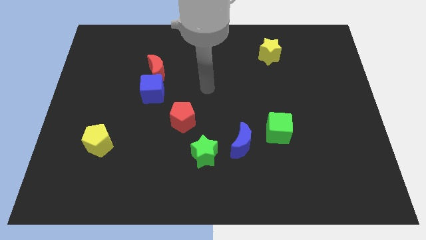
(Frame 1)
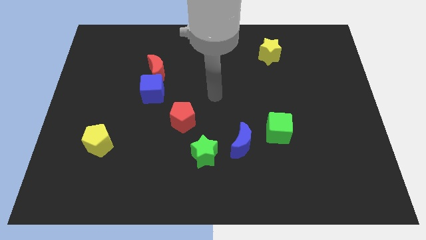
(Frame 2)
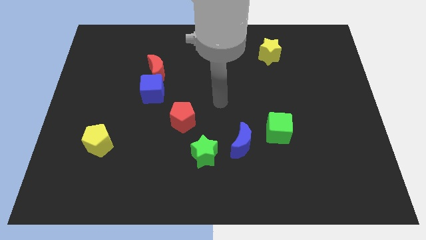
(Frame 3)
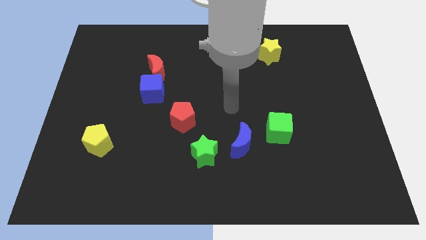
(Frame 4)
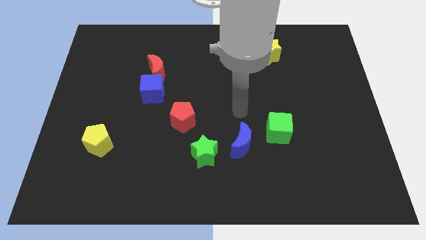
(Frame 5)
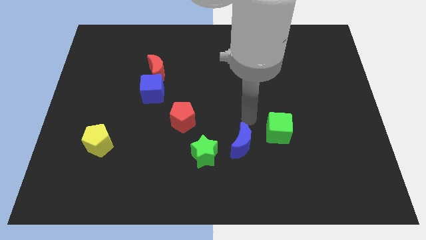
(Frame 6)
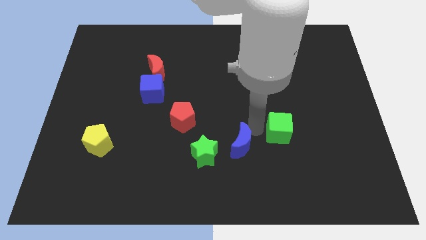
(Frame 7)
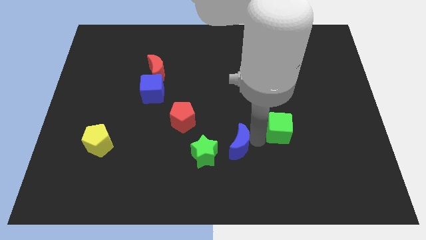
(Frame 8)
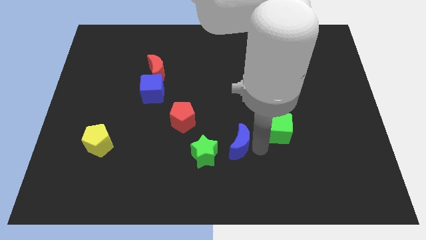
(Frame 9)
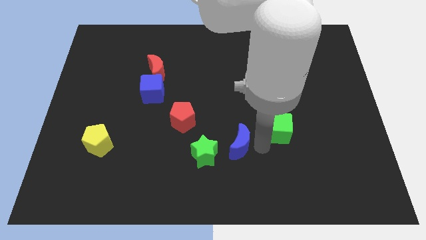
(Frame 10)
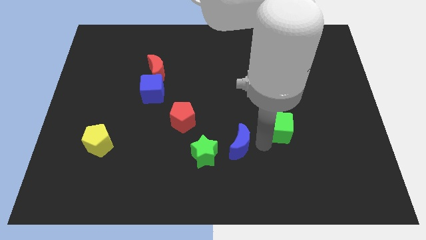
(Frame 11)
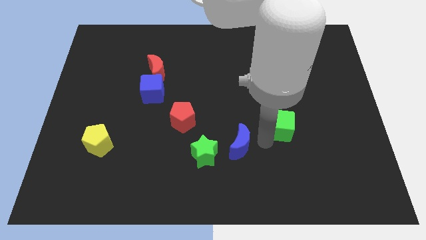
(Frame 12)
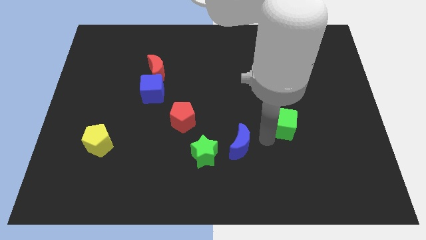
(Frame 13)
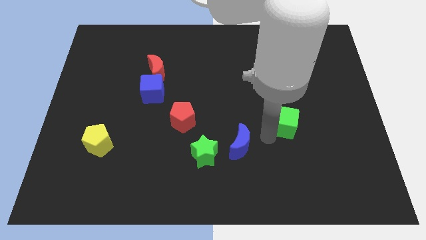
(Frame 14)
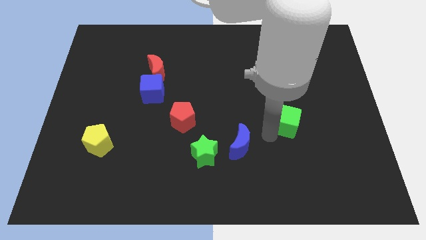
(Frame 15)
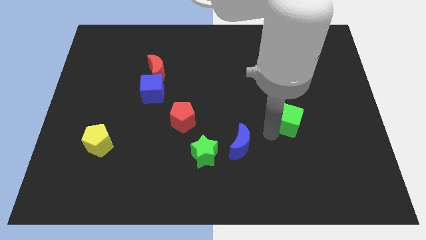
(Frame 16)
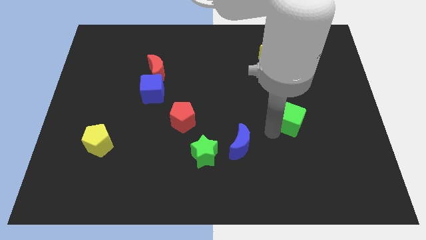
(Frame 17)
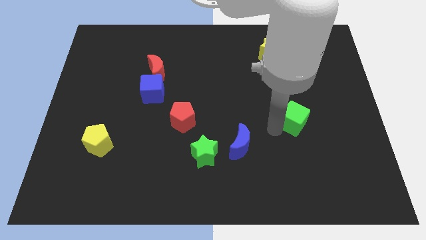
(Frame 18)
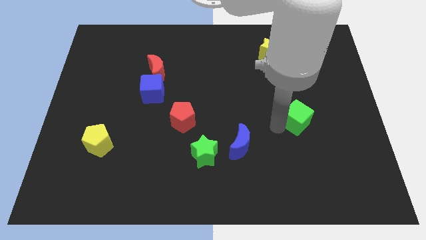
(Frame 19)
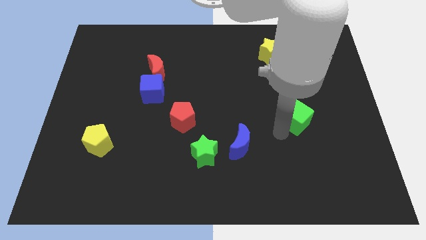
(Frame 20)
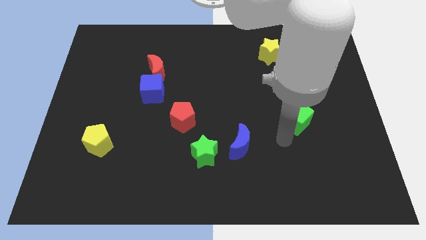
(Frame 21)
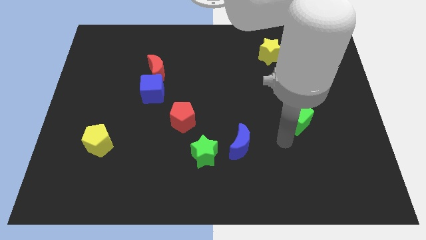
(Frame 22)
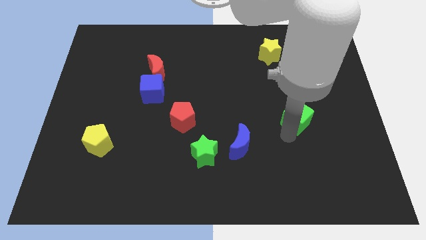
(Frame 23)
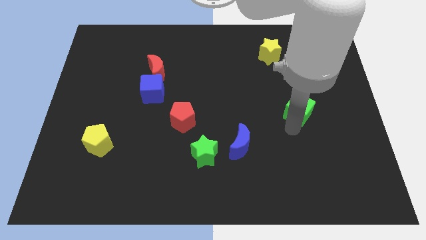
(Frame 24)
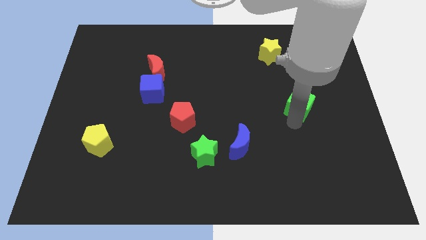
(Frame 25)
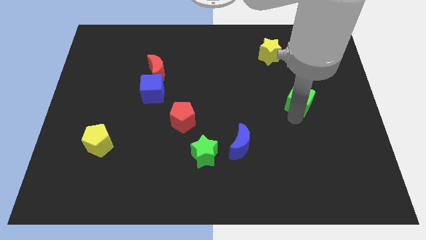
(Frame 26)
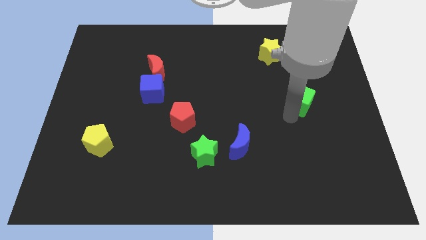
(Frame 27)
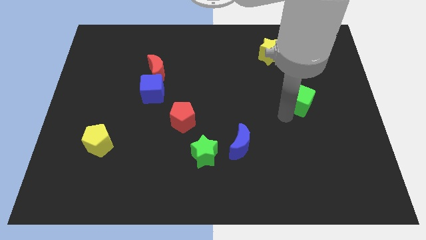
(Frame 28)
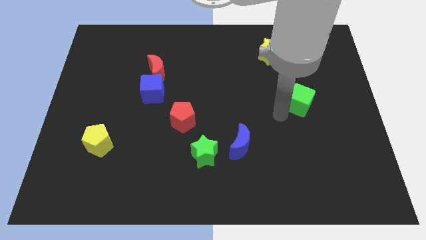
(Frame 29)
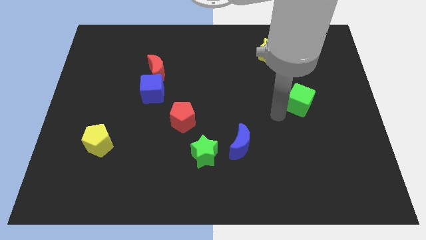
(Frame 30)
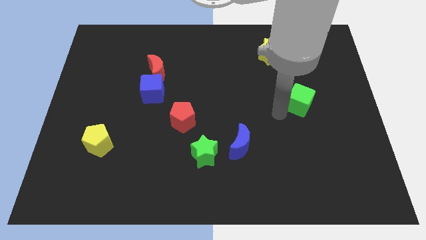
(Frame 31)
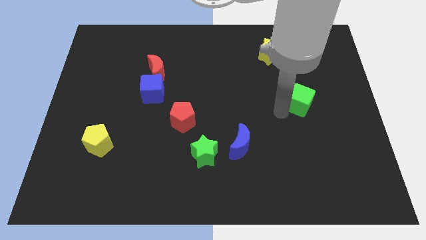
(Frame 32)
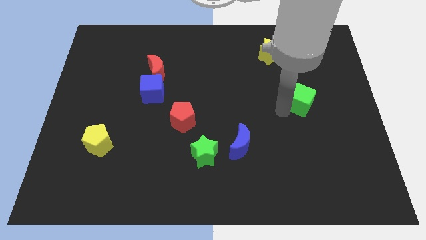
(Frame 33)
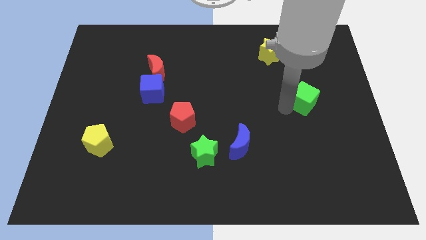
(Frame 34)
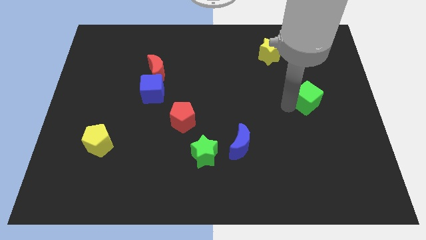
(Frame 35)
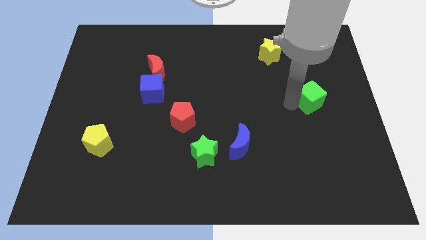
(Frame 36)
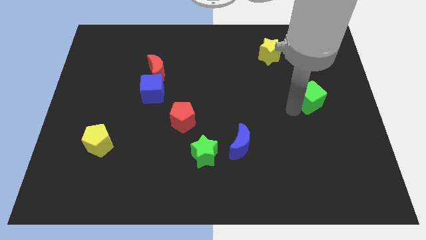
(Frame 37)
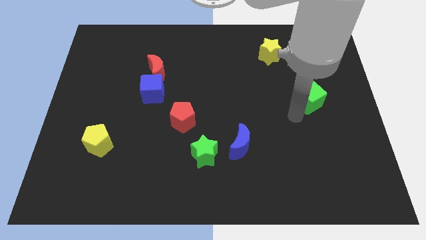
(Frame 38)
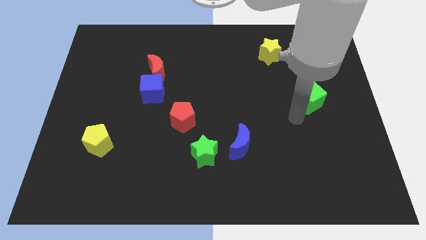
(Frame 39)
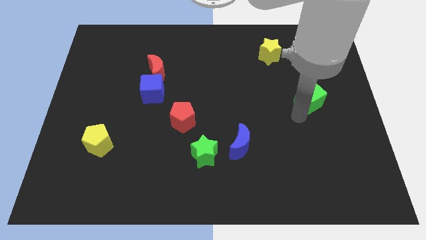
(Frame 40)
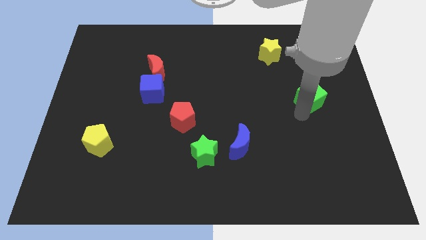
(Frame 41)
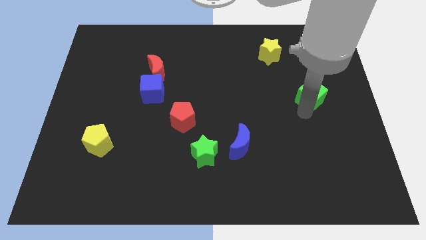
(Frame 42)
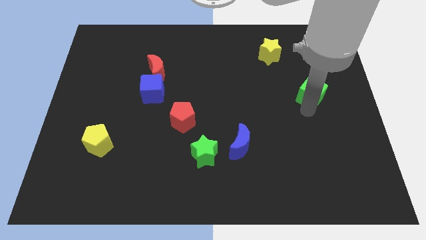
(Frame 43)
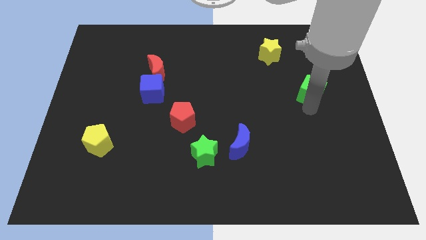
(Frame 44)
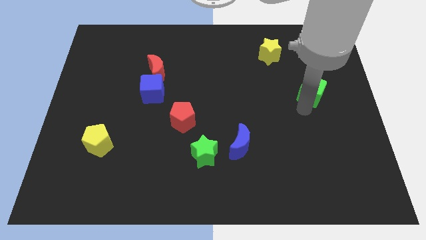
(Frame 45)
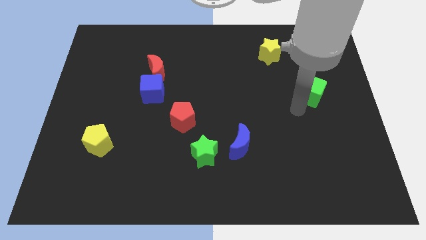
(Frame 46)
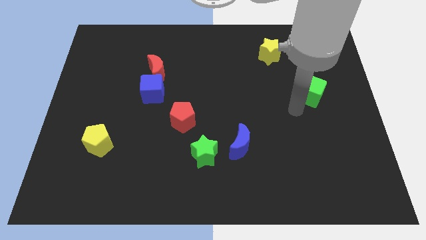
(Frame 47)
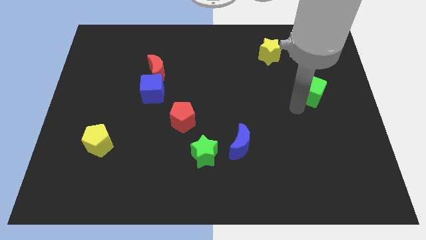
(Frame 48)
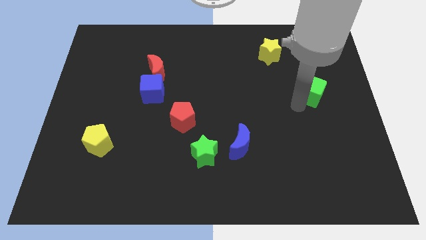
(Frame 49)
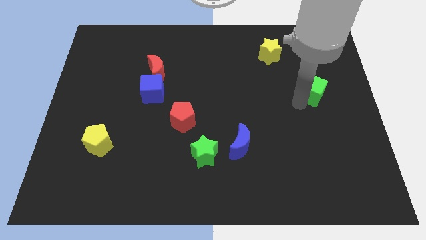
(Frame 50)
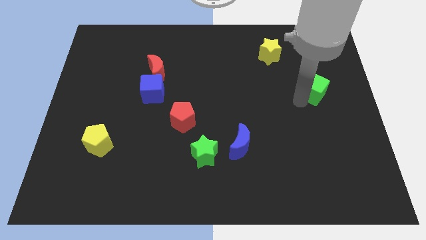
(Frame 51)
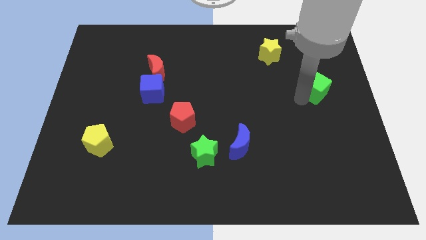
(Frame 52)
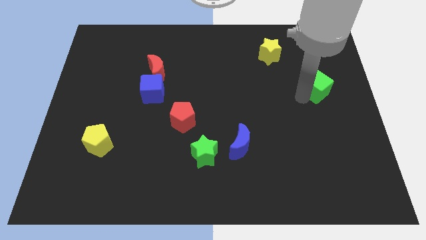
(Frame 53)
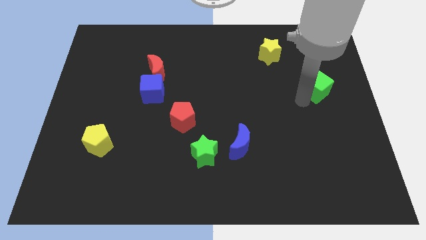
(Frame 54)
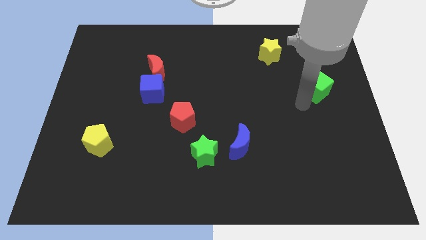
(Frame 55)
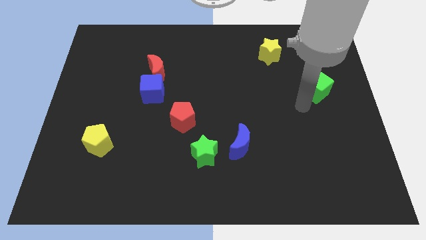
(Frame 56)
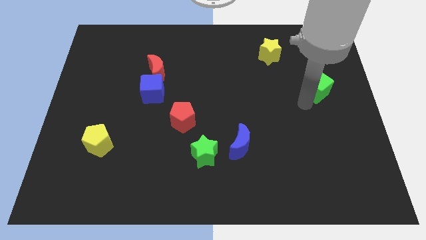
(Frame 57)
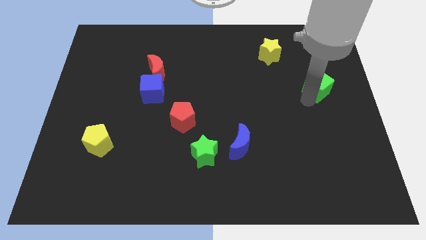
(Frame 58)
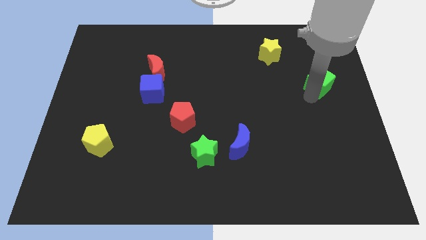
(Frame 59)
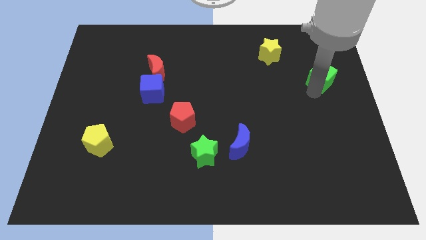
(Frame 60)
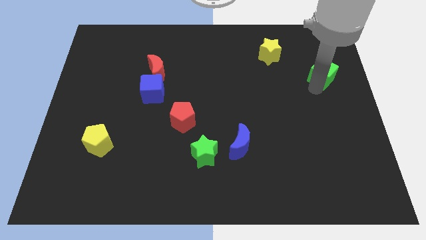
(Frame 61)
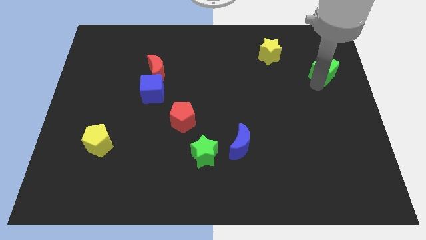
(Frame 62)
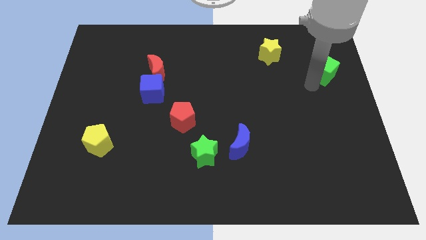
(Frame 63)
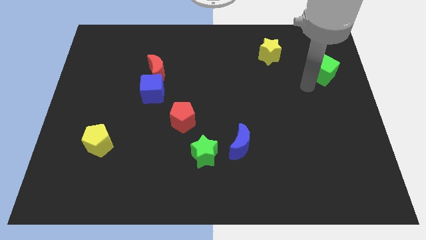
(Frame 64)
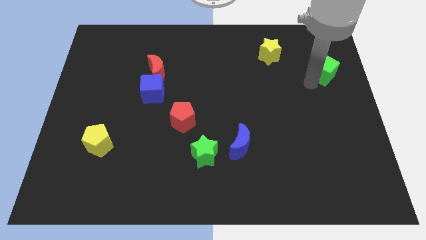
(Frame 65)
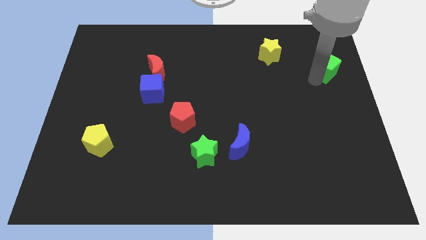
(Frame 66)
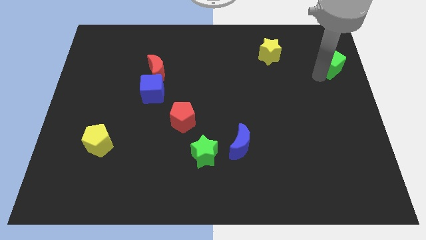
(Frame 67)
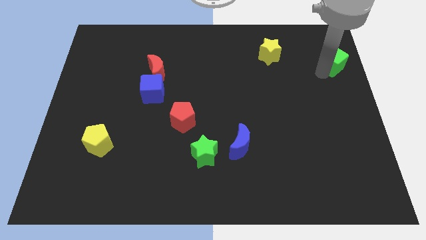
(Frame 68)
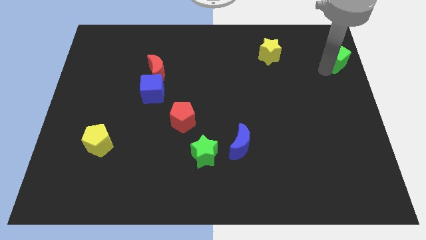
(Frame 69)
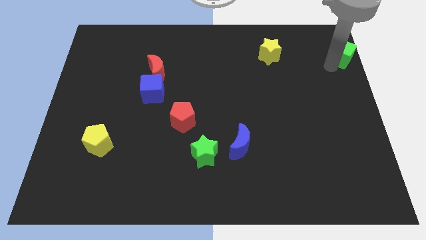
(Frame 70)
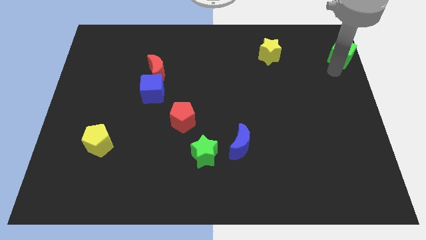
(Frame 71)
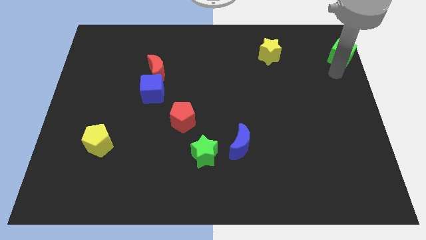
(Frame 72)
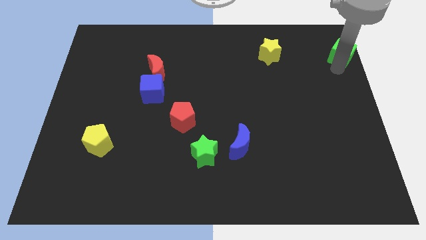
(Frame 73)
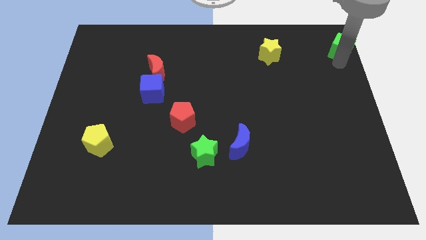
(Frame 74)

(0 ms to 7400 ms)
slide the green cube to the top right corner

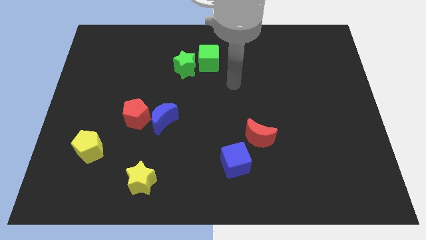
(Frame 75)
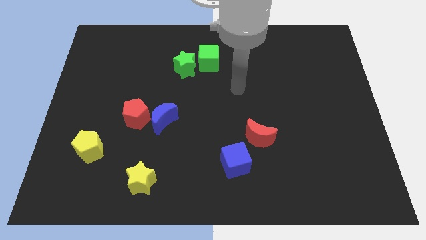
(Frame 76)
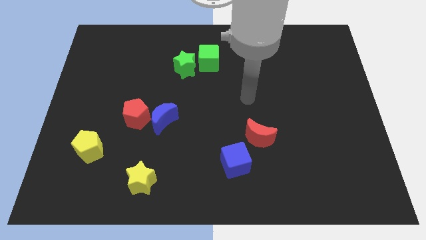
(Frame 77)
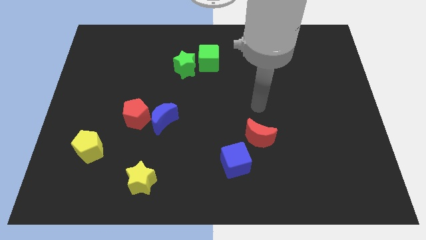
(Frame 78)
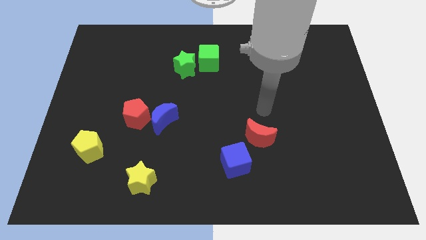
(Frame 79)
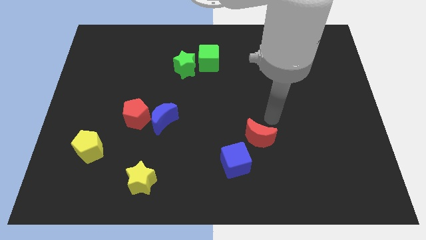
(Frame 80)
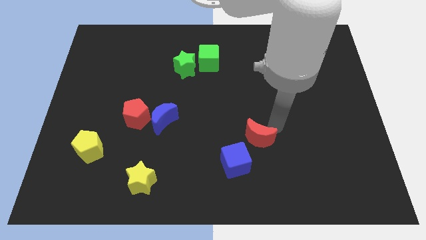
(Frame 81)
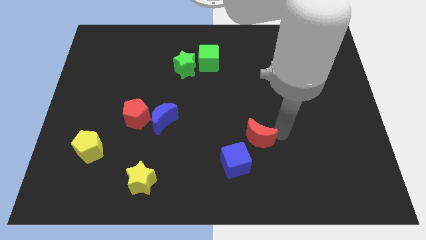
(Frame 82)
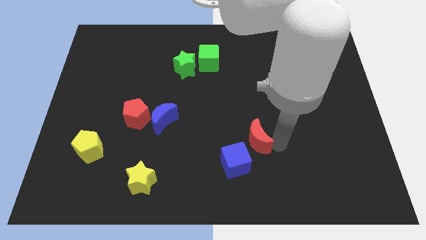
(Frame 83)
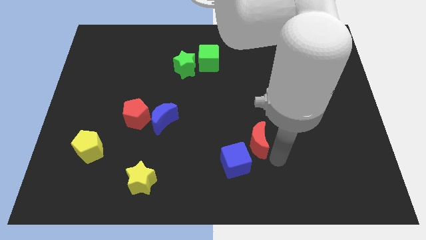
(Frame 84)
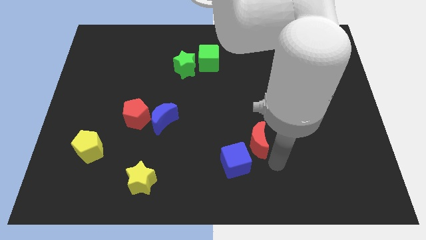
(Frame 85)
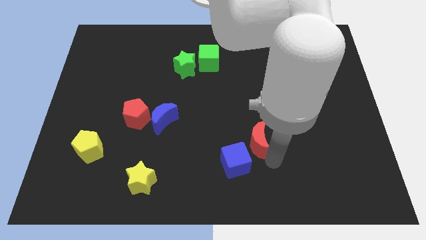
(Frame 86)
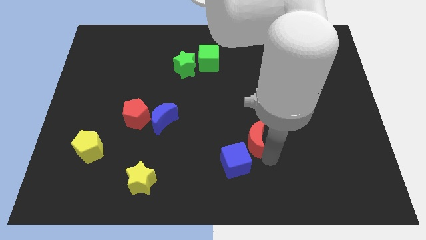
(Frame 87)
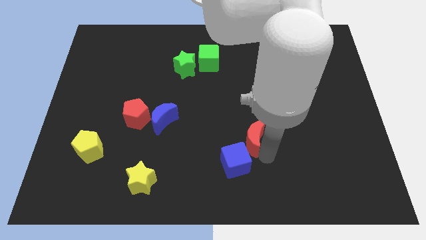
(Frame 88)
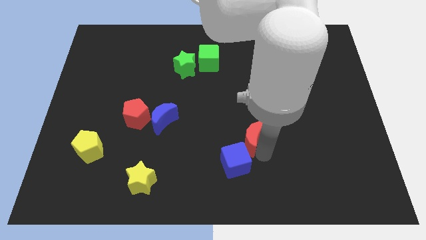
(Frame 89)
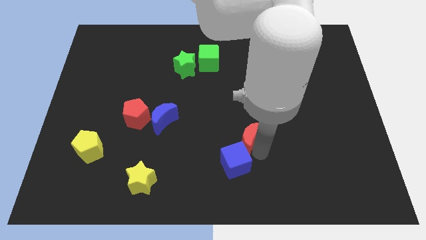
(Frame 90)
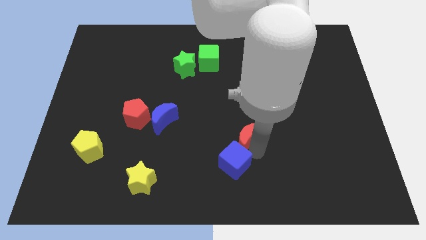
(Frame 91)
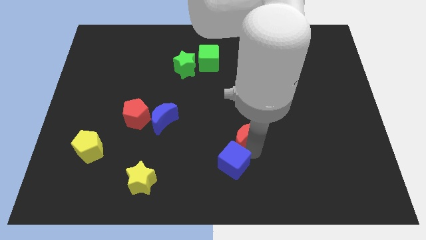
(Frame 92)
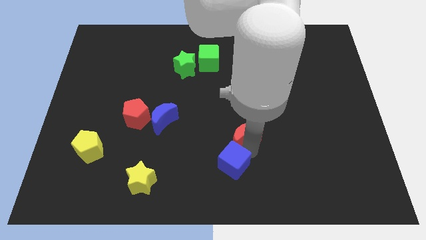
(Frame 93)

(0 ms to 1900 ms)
put the red moon to the middle
